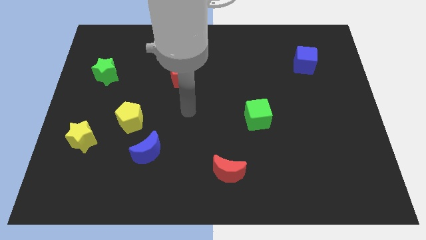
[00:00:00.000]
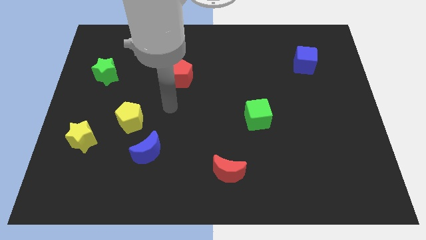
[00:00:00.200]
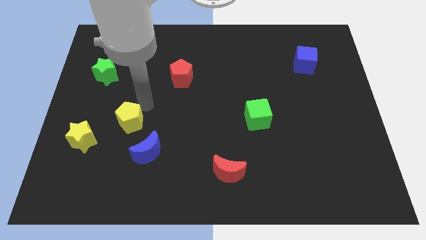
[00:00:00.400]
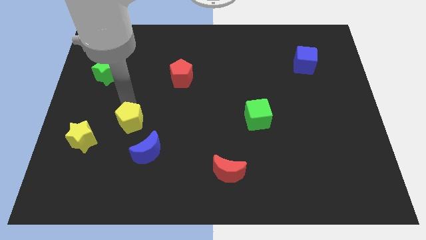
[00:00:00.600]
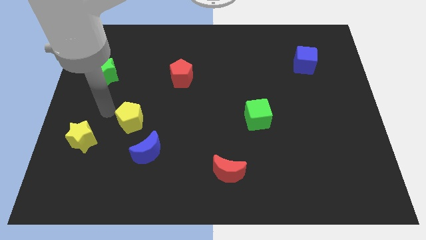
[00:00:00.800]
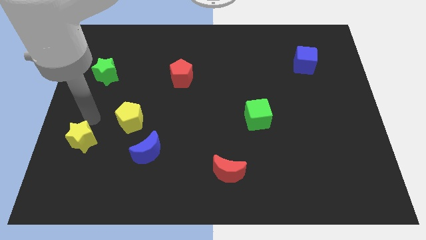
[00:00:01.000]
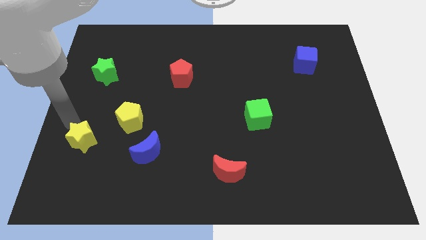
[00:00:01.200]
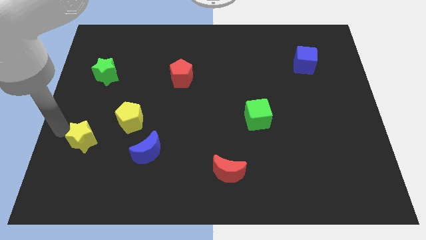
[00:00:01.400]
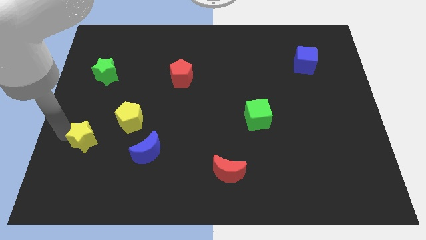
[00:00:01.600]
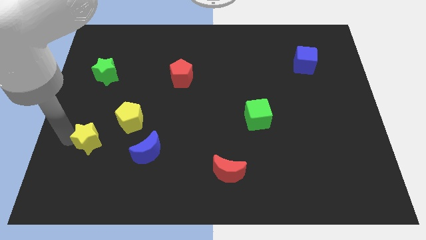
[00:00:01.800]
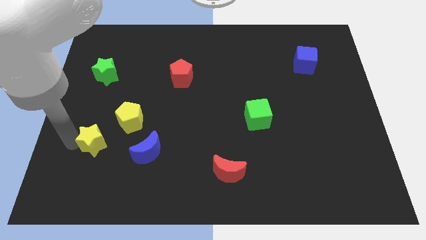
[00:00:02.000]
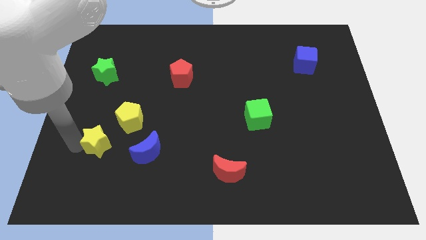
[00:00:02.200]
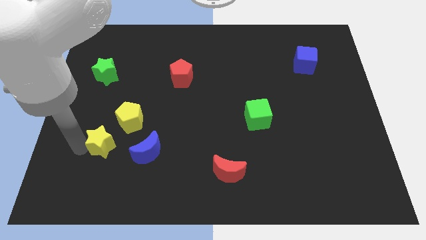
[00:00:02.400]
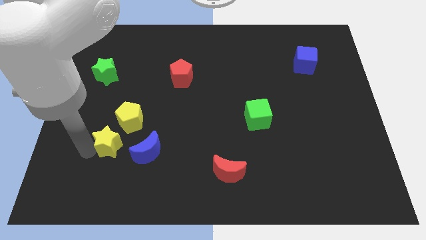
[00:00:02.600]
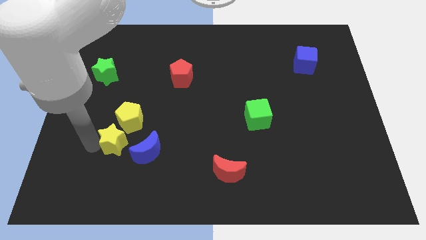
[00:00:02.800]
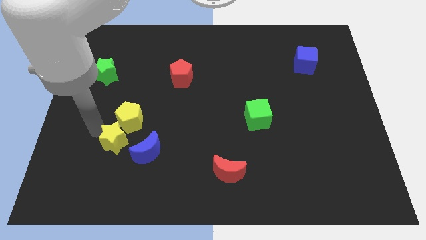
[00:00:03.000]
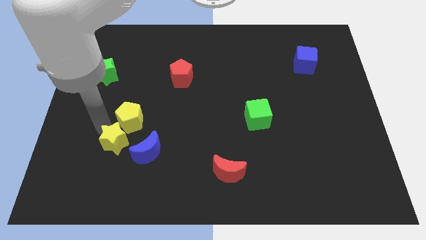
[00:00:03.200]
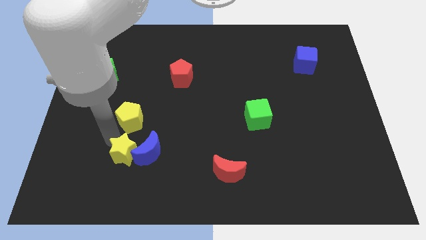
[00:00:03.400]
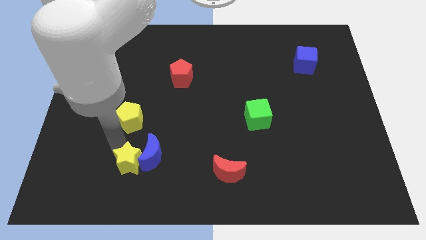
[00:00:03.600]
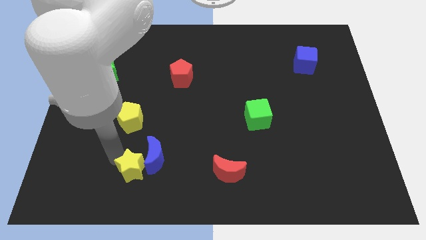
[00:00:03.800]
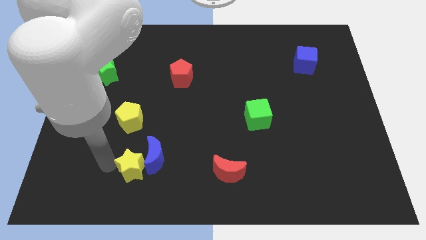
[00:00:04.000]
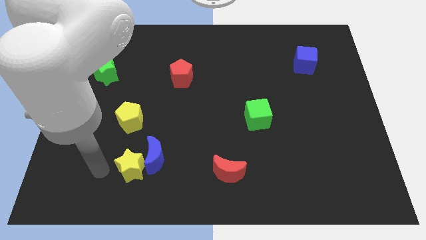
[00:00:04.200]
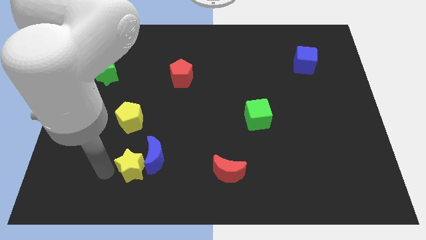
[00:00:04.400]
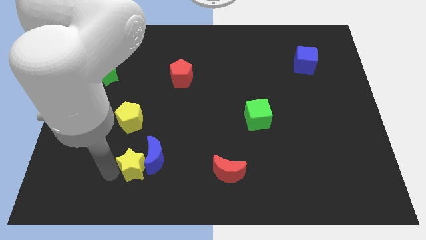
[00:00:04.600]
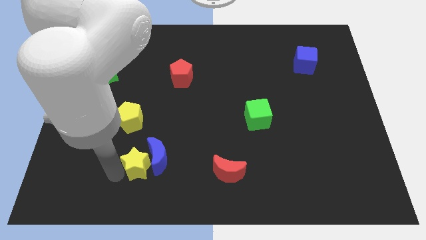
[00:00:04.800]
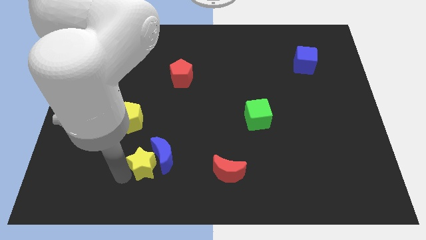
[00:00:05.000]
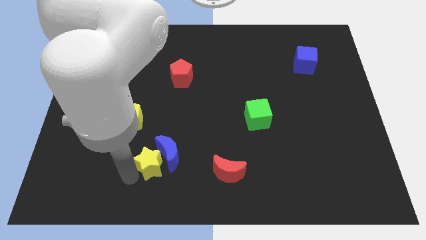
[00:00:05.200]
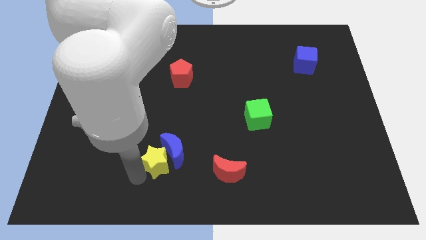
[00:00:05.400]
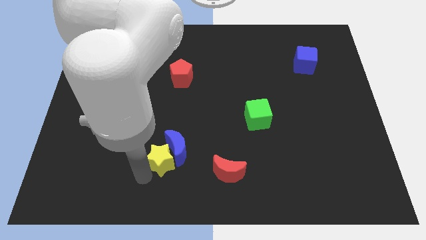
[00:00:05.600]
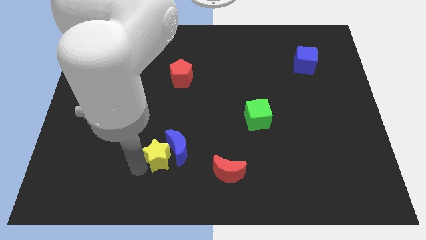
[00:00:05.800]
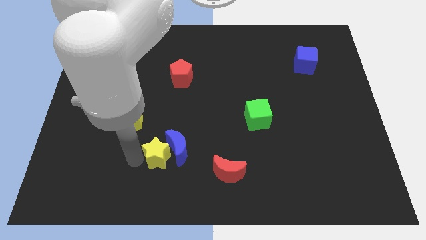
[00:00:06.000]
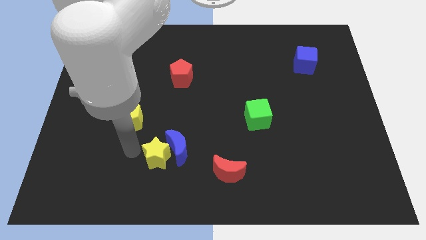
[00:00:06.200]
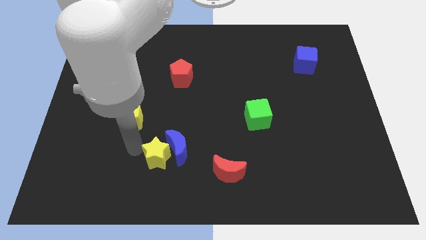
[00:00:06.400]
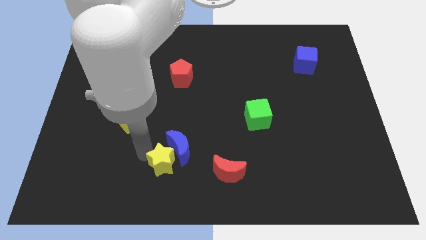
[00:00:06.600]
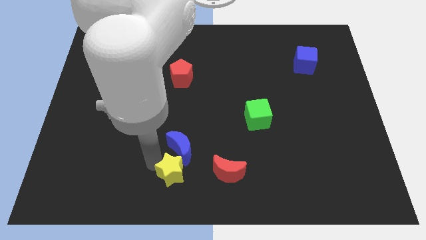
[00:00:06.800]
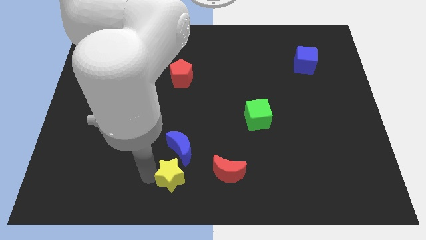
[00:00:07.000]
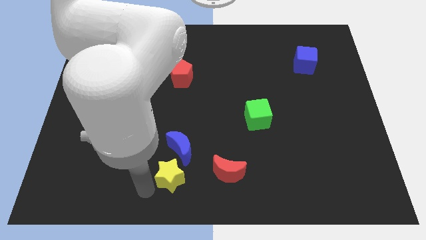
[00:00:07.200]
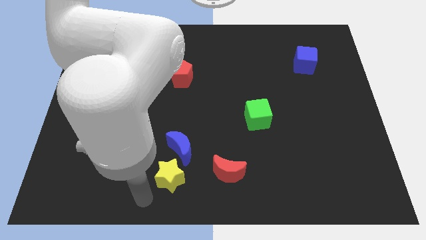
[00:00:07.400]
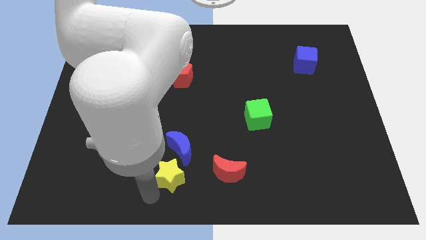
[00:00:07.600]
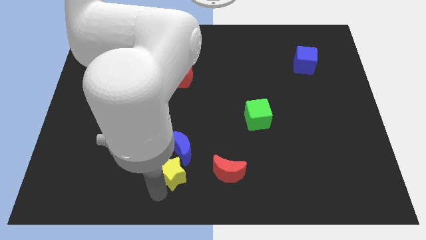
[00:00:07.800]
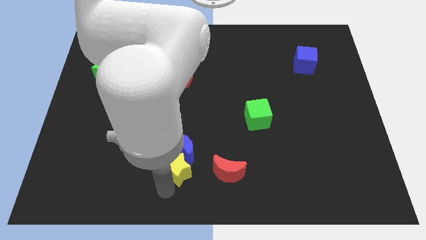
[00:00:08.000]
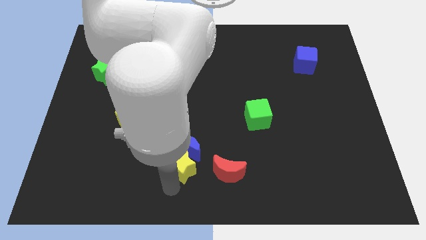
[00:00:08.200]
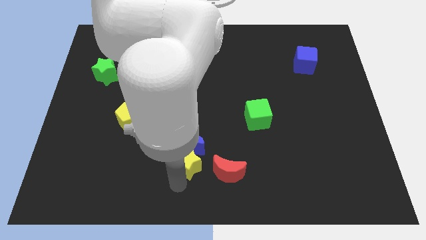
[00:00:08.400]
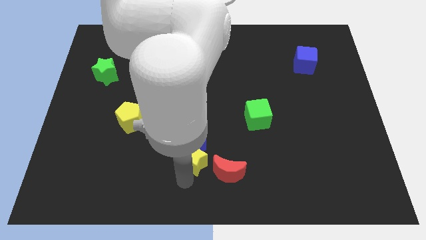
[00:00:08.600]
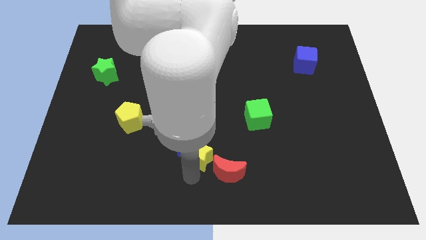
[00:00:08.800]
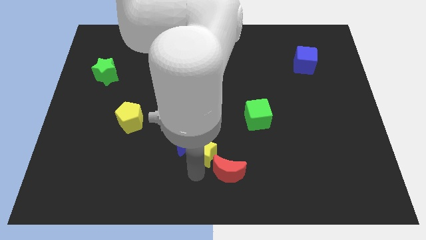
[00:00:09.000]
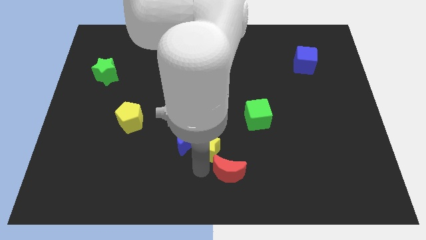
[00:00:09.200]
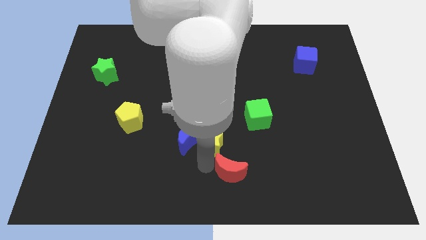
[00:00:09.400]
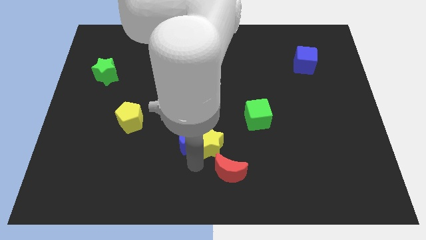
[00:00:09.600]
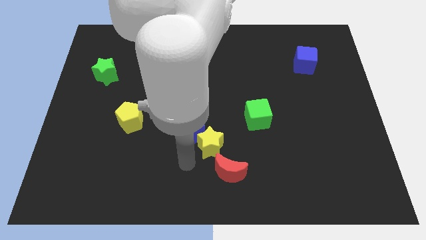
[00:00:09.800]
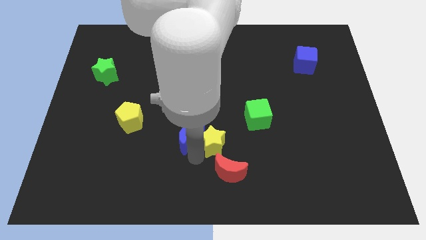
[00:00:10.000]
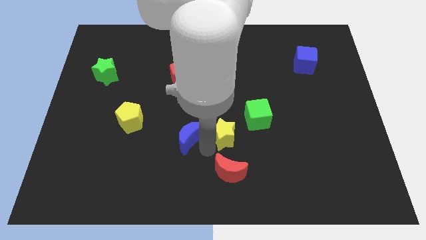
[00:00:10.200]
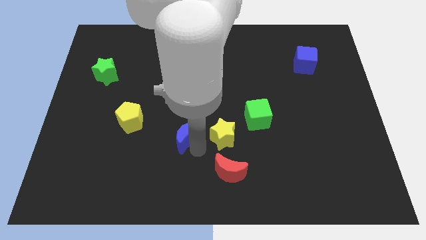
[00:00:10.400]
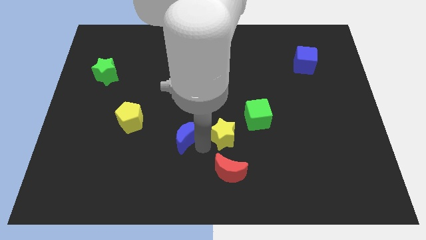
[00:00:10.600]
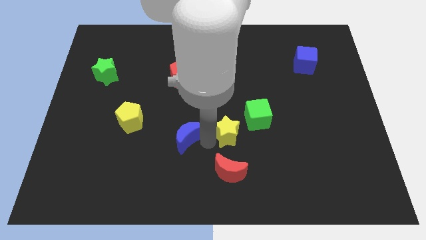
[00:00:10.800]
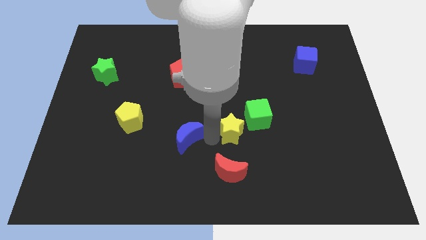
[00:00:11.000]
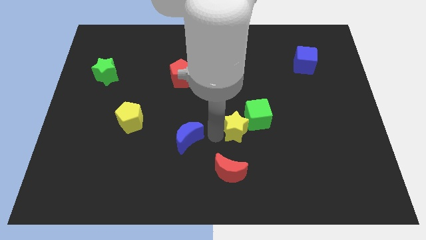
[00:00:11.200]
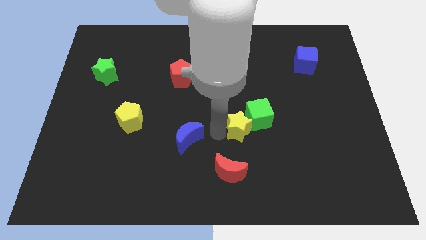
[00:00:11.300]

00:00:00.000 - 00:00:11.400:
slide the yellow star close to the green cube

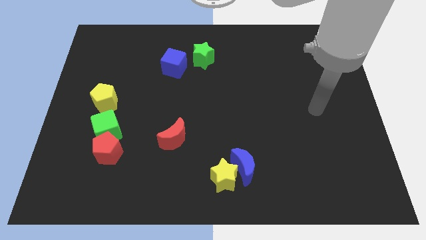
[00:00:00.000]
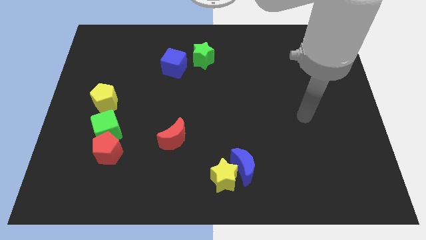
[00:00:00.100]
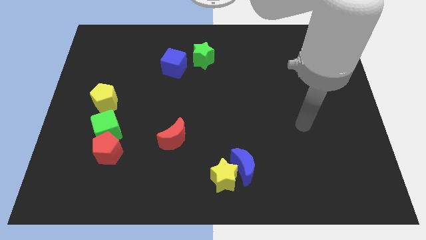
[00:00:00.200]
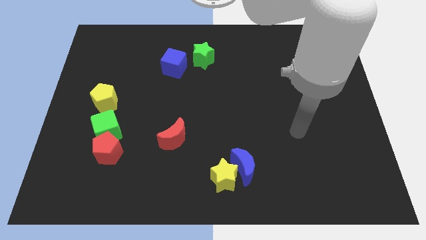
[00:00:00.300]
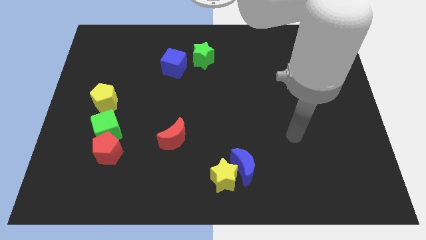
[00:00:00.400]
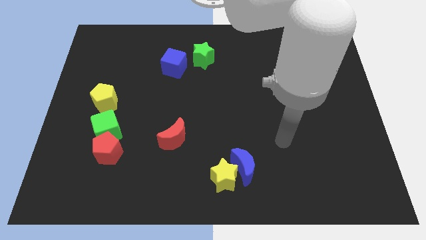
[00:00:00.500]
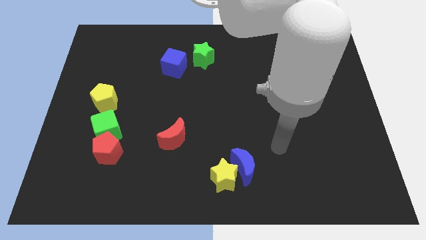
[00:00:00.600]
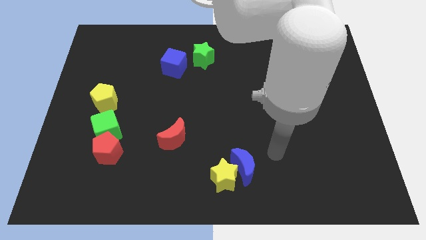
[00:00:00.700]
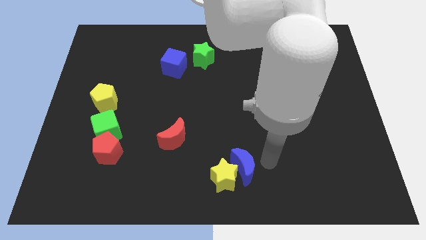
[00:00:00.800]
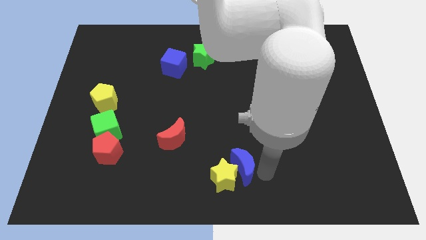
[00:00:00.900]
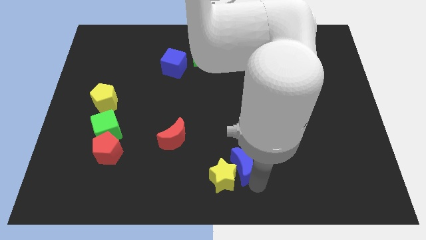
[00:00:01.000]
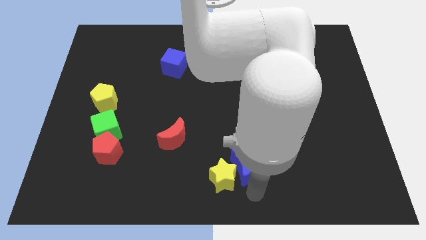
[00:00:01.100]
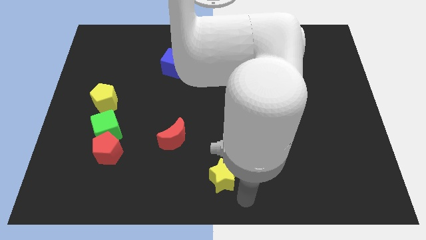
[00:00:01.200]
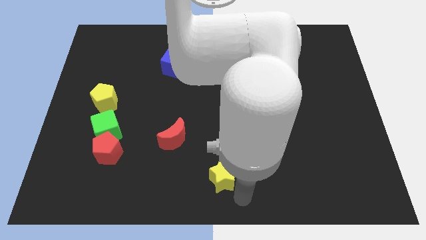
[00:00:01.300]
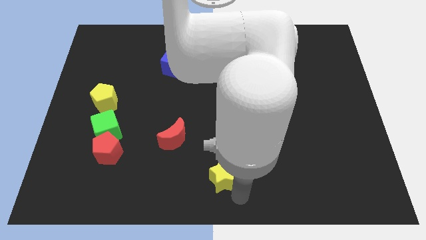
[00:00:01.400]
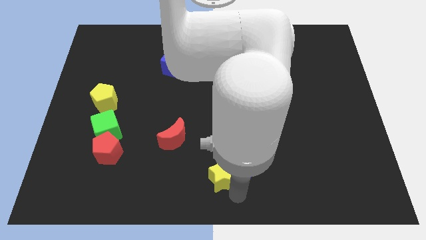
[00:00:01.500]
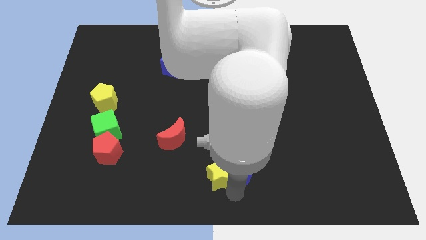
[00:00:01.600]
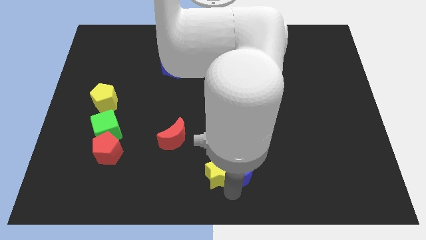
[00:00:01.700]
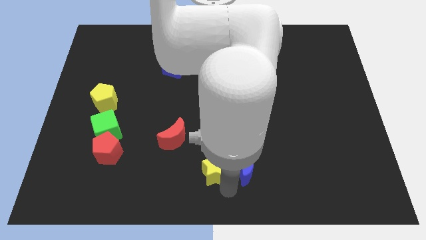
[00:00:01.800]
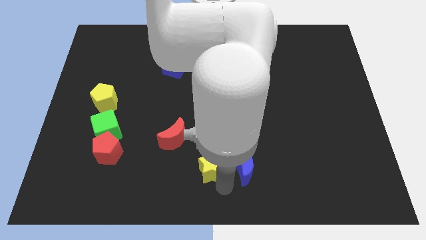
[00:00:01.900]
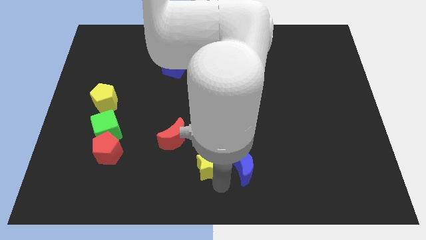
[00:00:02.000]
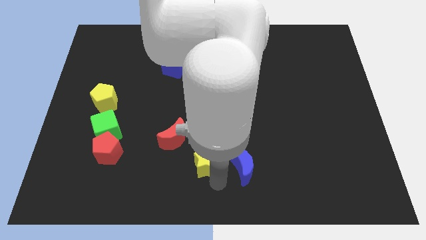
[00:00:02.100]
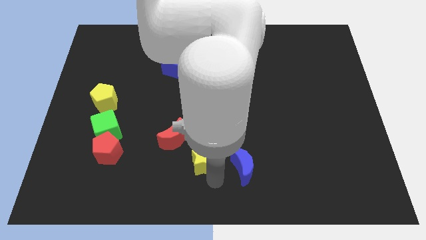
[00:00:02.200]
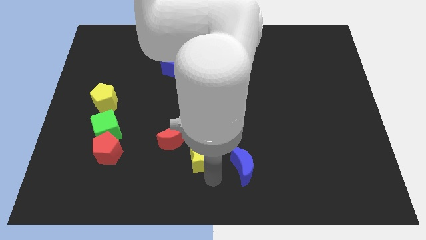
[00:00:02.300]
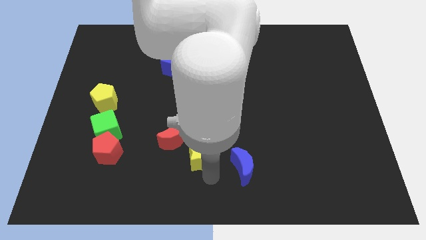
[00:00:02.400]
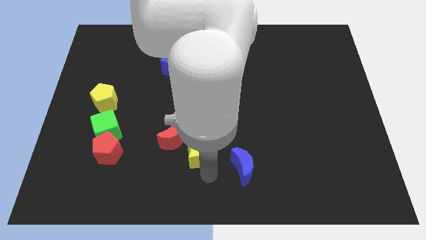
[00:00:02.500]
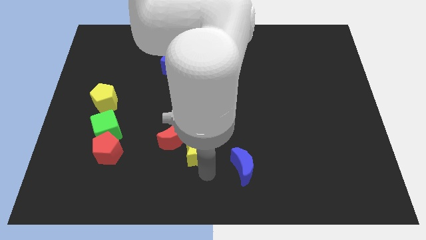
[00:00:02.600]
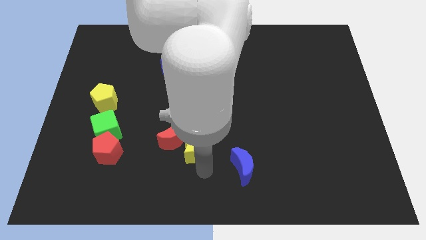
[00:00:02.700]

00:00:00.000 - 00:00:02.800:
push the yellow star next to the red moon
